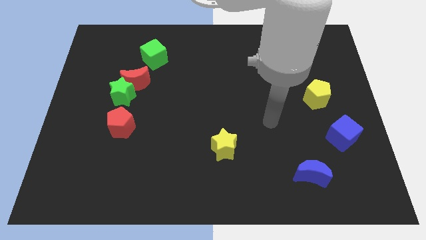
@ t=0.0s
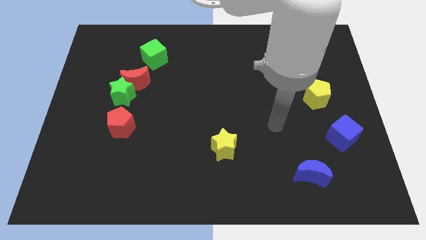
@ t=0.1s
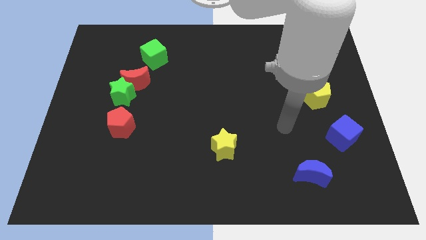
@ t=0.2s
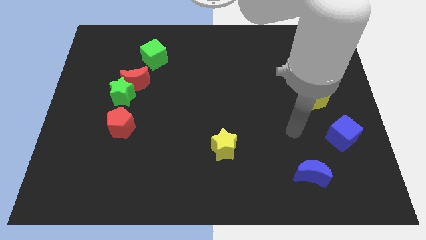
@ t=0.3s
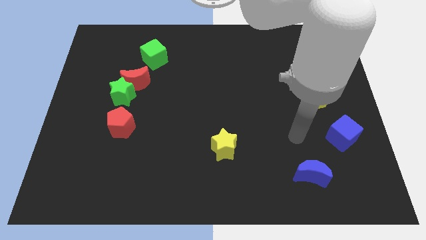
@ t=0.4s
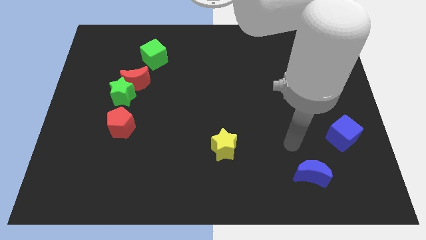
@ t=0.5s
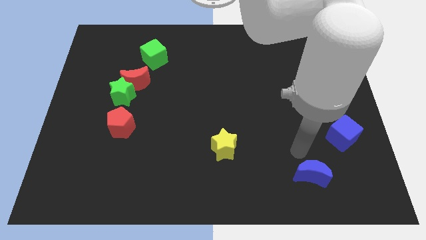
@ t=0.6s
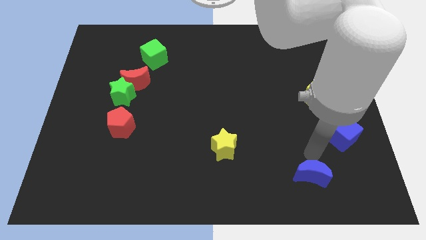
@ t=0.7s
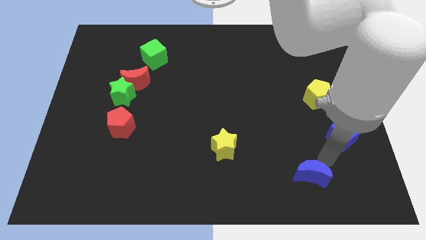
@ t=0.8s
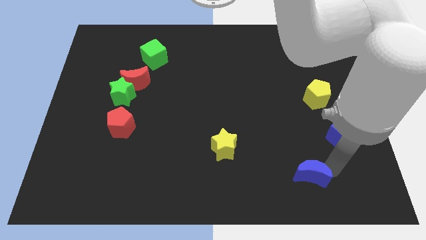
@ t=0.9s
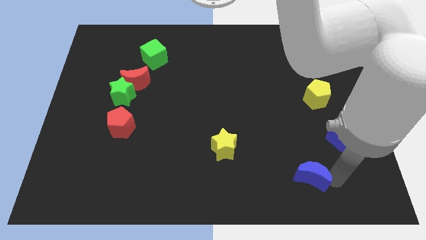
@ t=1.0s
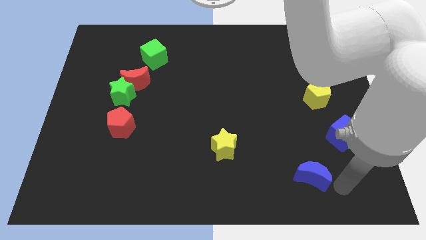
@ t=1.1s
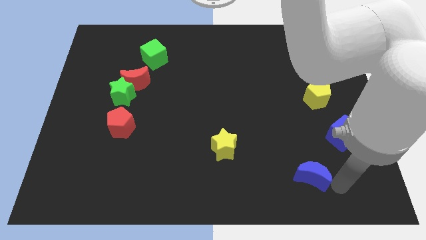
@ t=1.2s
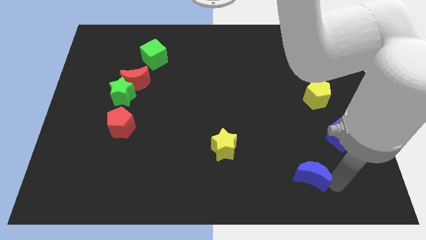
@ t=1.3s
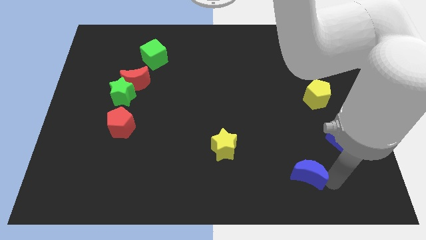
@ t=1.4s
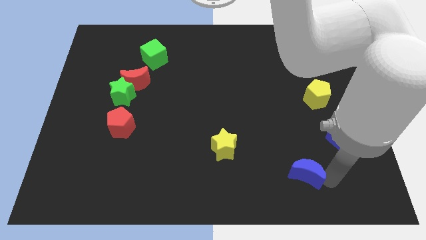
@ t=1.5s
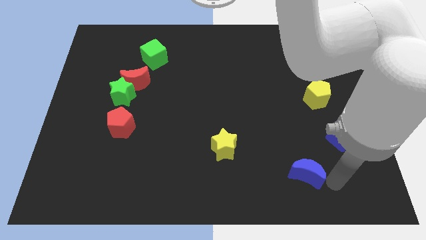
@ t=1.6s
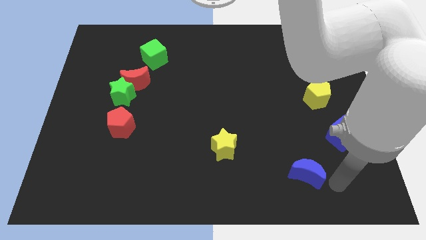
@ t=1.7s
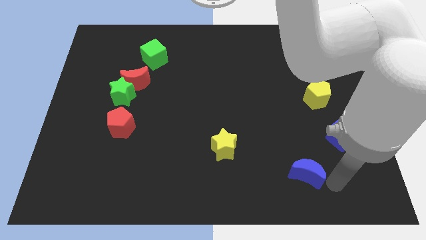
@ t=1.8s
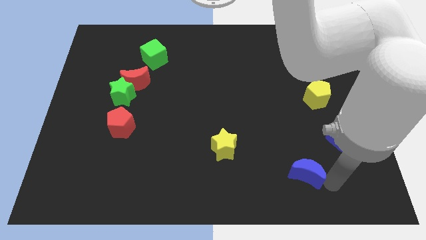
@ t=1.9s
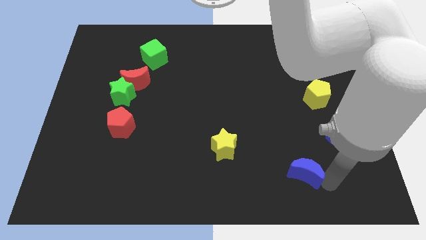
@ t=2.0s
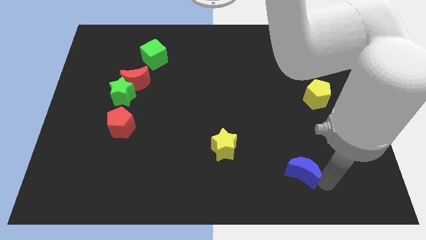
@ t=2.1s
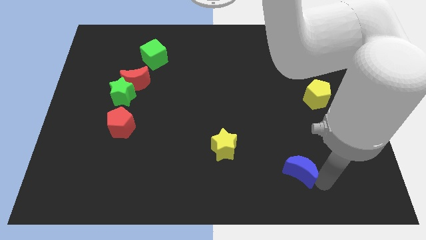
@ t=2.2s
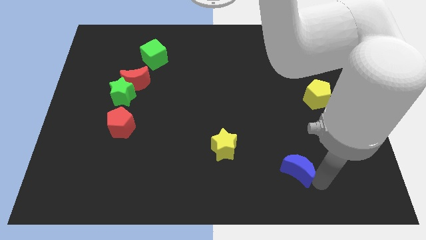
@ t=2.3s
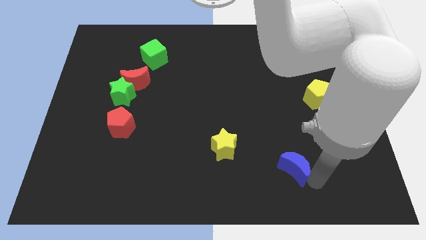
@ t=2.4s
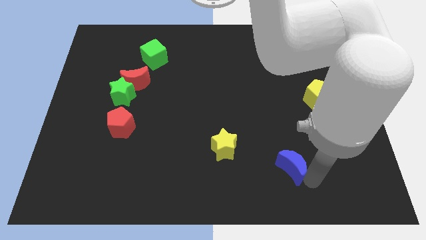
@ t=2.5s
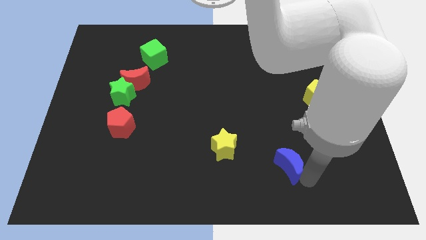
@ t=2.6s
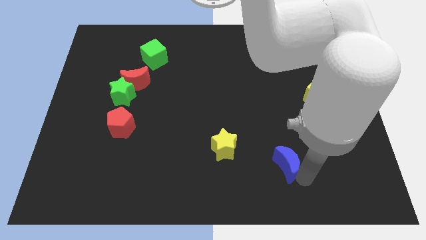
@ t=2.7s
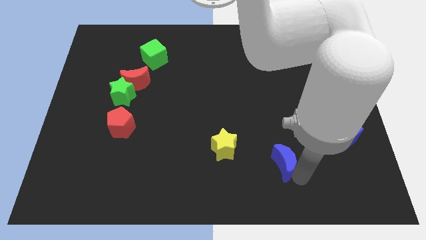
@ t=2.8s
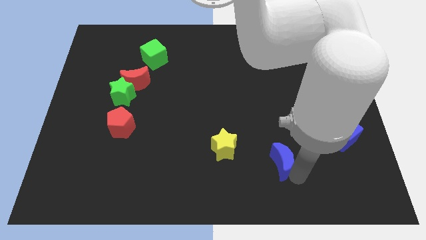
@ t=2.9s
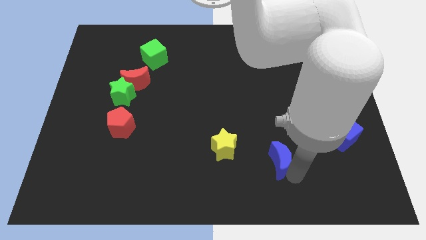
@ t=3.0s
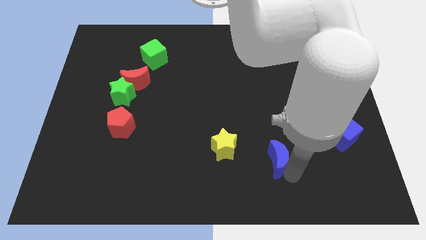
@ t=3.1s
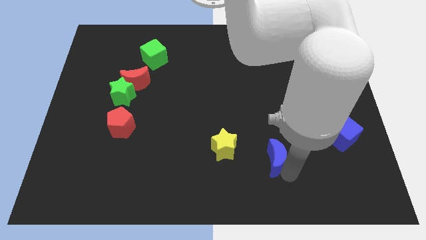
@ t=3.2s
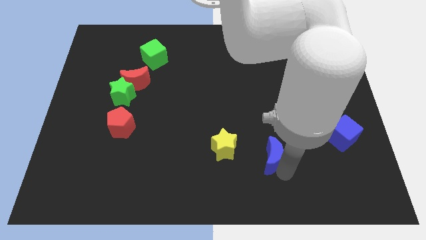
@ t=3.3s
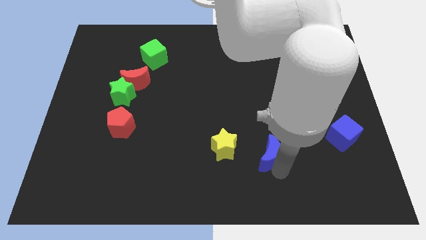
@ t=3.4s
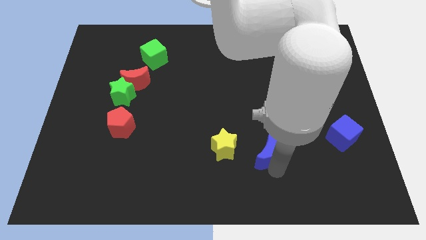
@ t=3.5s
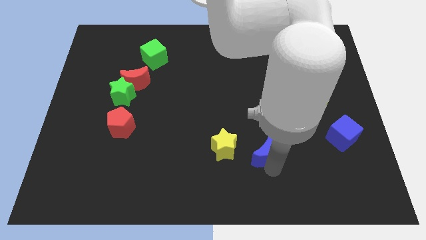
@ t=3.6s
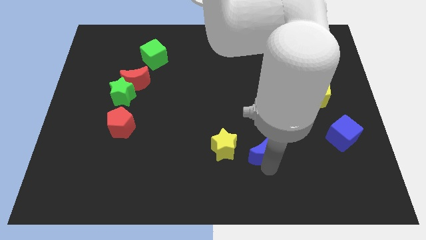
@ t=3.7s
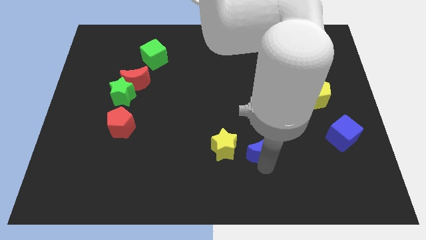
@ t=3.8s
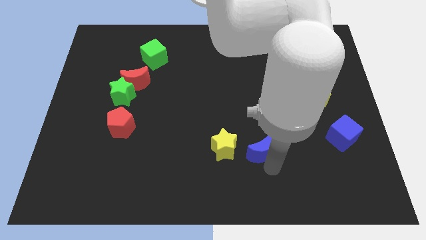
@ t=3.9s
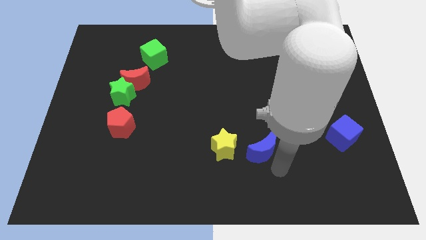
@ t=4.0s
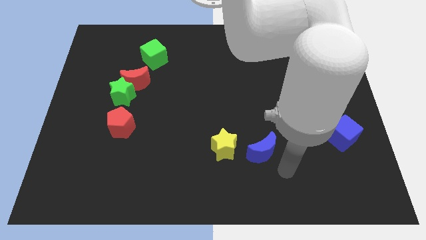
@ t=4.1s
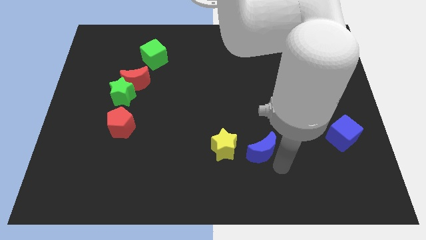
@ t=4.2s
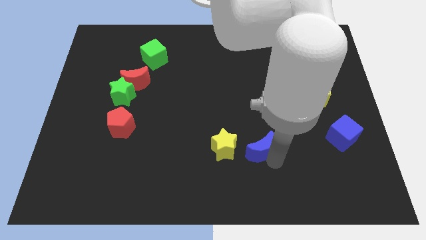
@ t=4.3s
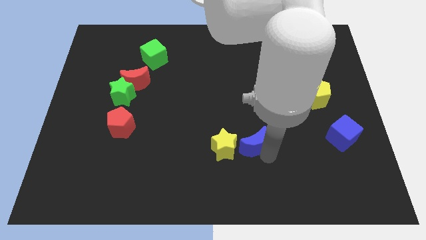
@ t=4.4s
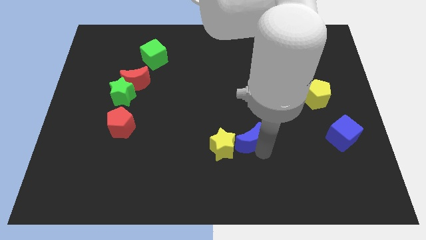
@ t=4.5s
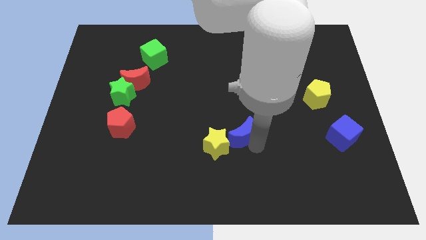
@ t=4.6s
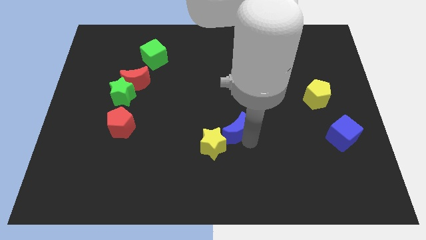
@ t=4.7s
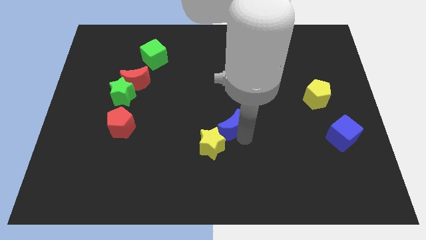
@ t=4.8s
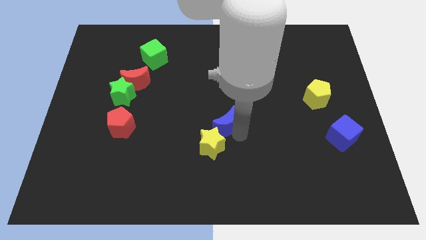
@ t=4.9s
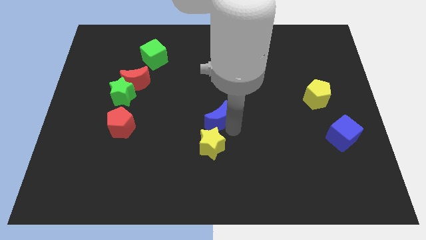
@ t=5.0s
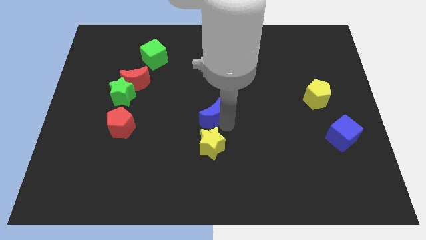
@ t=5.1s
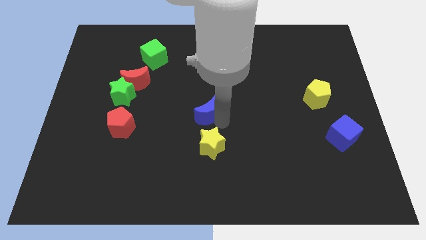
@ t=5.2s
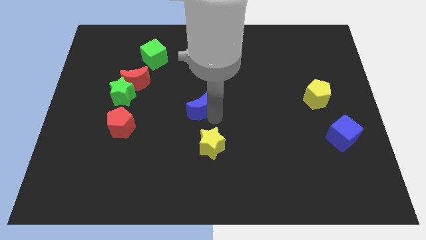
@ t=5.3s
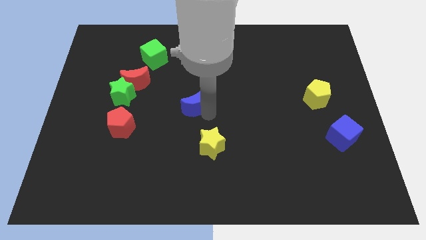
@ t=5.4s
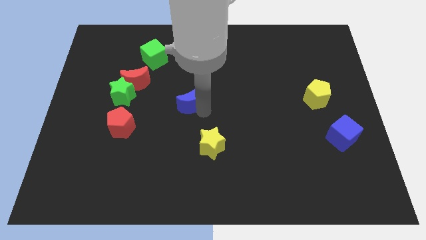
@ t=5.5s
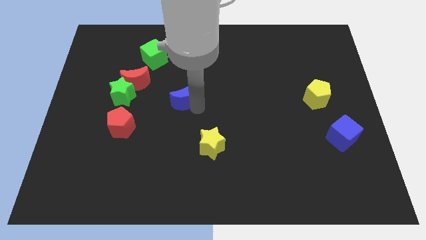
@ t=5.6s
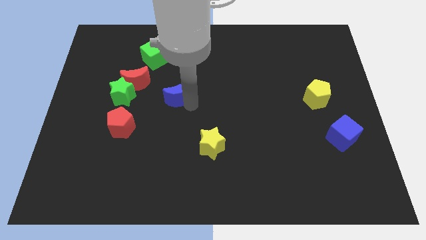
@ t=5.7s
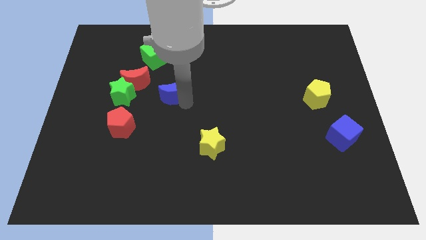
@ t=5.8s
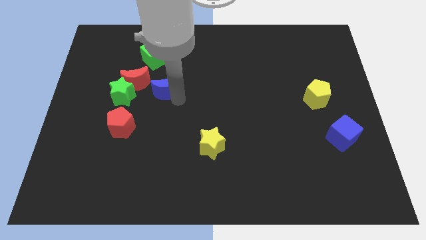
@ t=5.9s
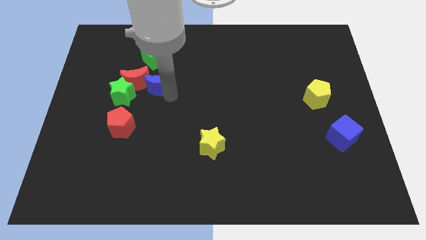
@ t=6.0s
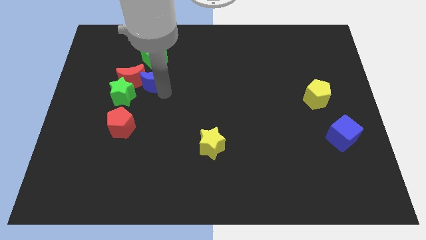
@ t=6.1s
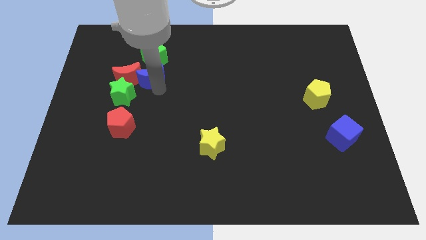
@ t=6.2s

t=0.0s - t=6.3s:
put the blue moon to the top right side of the red moon

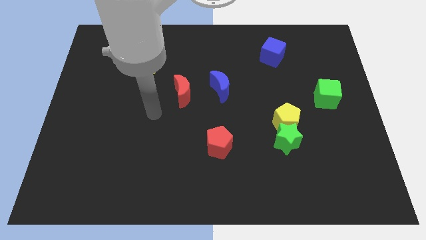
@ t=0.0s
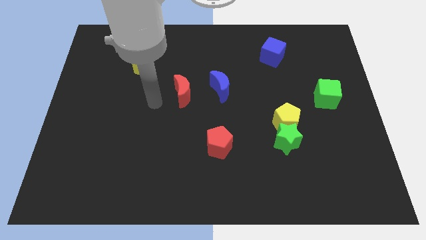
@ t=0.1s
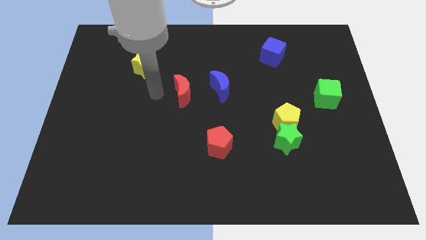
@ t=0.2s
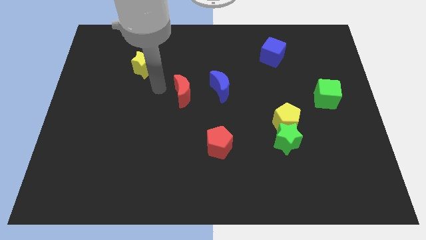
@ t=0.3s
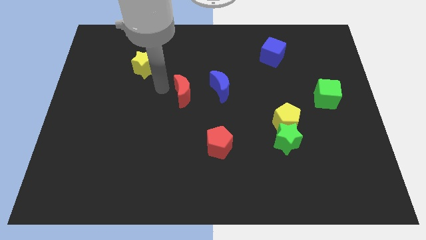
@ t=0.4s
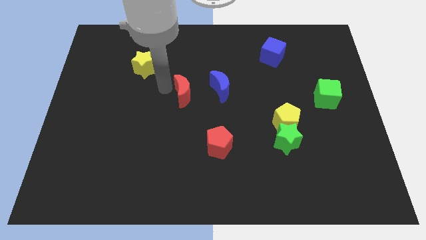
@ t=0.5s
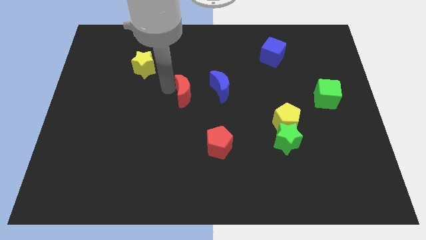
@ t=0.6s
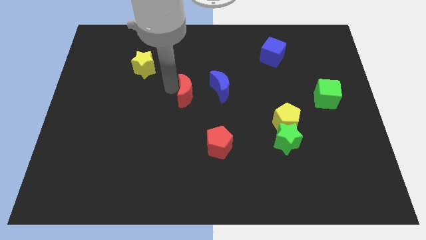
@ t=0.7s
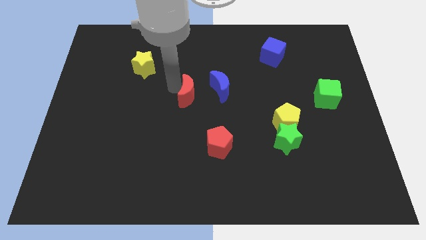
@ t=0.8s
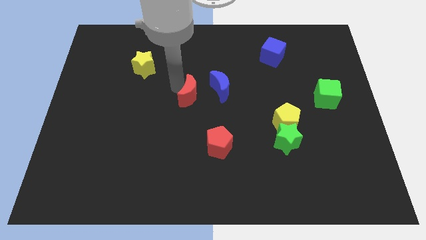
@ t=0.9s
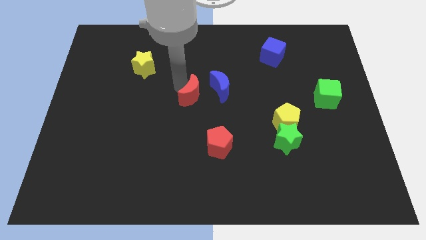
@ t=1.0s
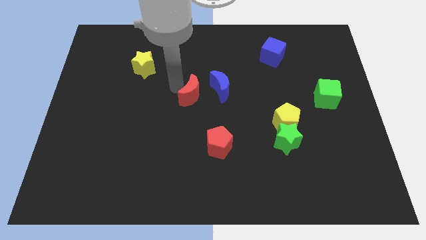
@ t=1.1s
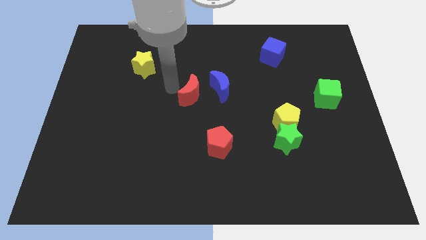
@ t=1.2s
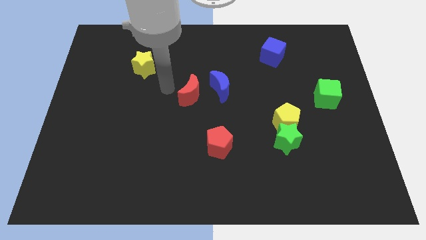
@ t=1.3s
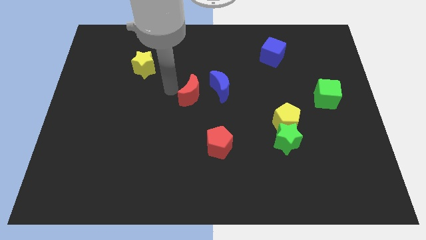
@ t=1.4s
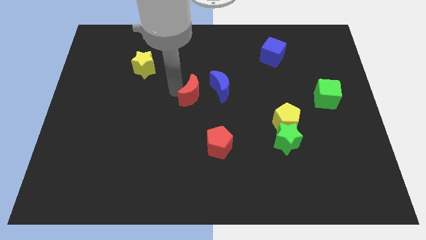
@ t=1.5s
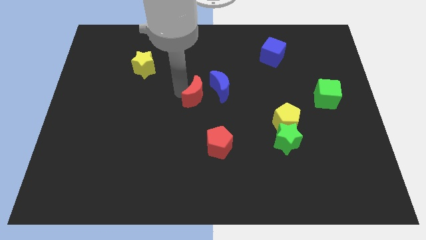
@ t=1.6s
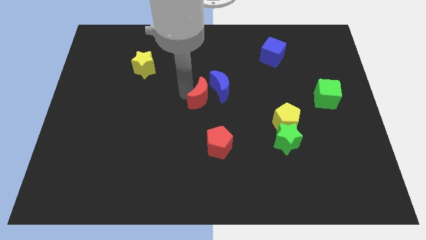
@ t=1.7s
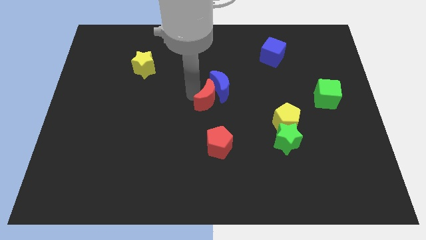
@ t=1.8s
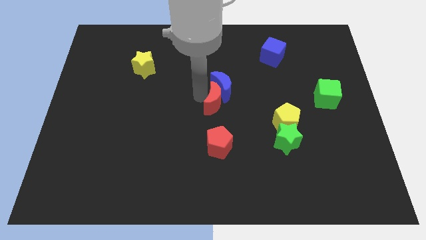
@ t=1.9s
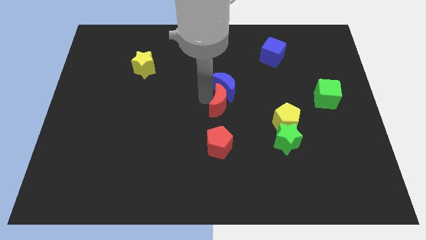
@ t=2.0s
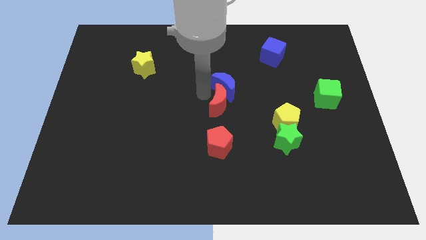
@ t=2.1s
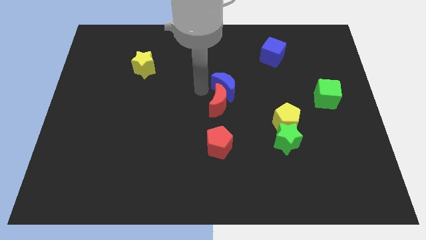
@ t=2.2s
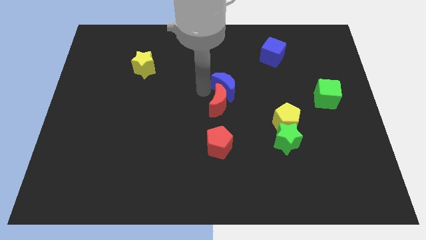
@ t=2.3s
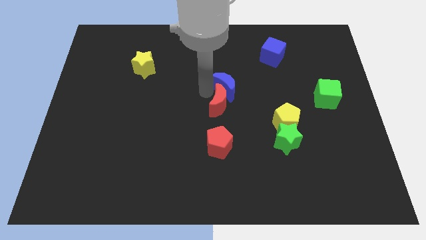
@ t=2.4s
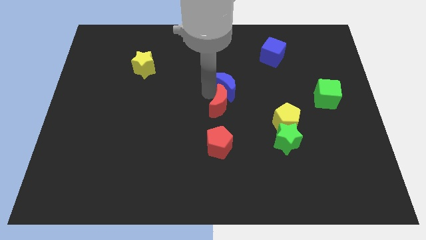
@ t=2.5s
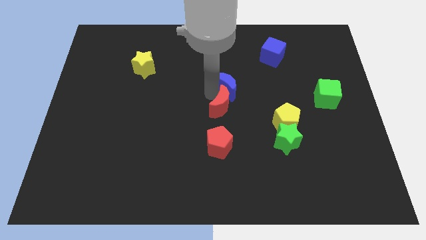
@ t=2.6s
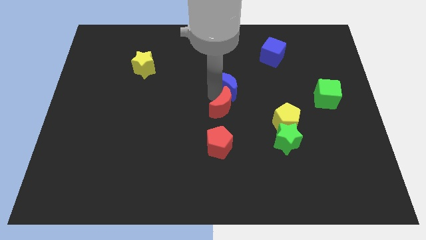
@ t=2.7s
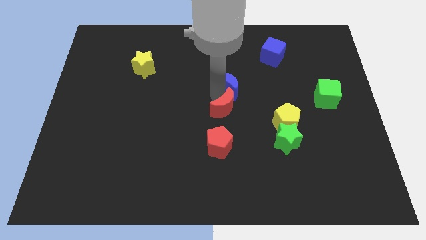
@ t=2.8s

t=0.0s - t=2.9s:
move the red moon to the left side of the yellow pentagon
